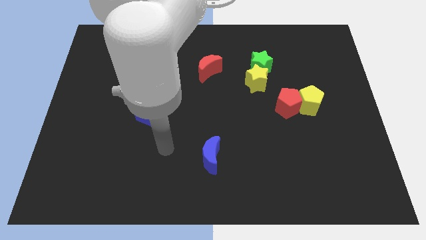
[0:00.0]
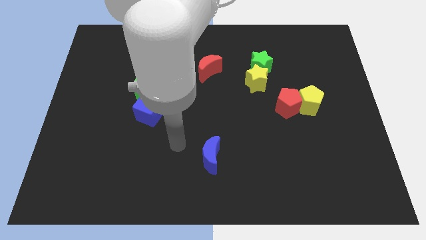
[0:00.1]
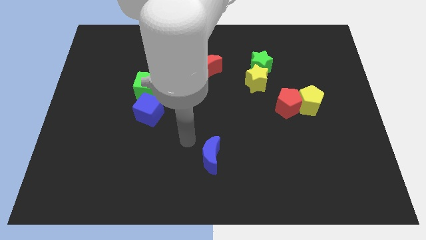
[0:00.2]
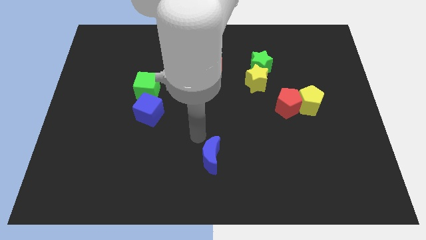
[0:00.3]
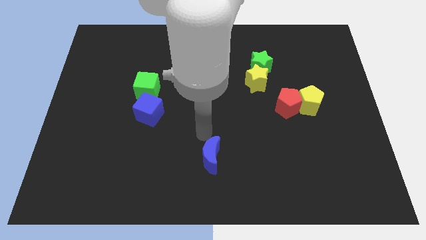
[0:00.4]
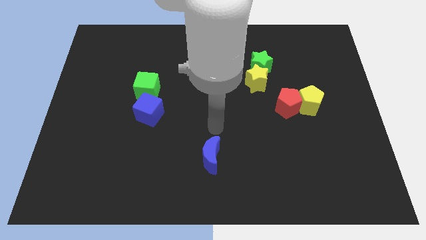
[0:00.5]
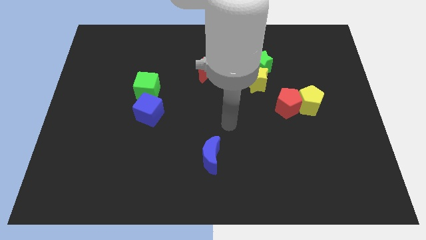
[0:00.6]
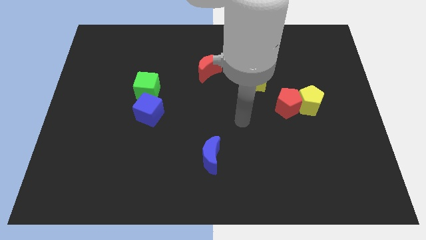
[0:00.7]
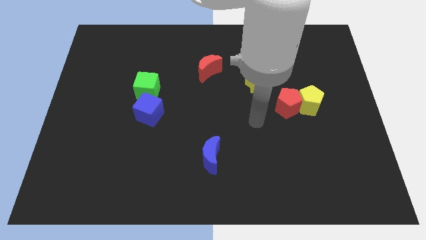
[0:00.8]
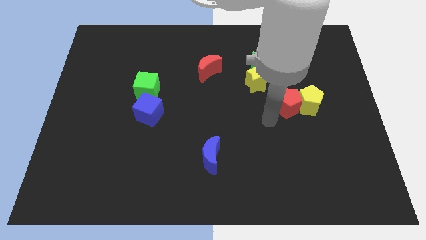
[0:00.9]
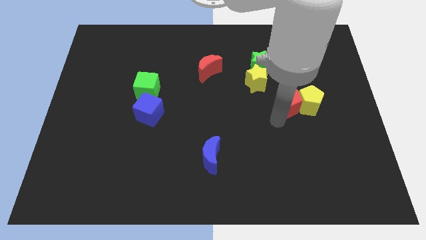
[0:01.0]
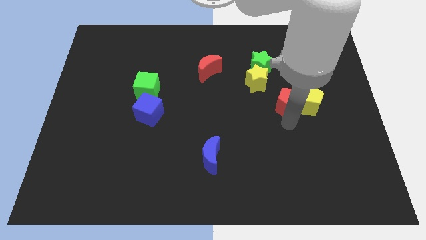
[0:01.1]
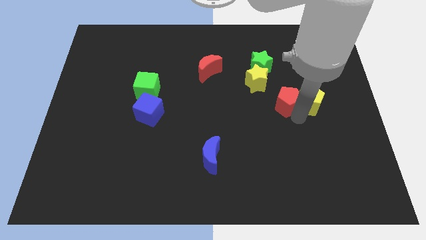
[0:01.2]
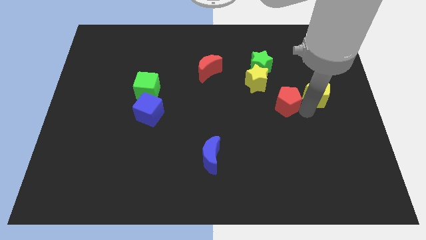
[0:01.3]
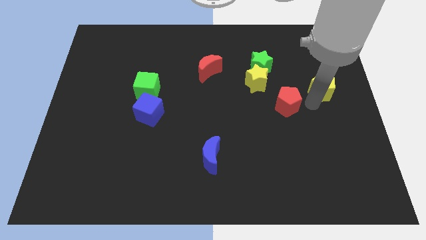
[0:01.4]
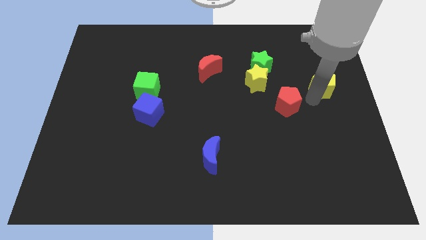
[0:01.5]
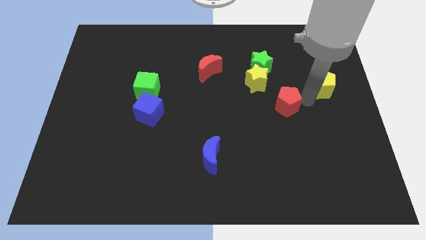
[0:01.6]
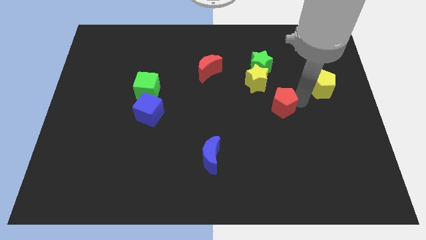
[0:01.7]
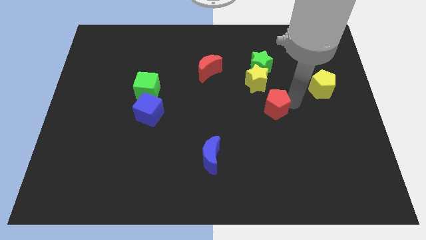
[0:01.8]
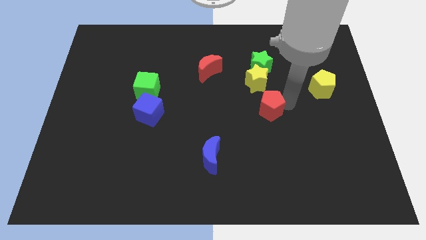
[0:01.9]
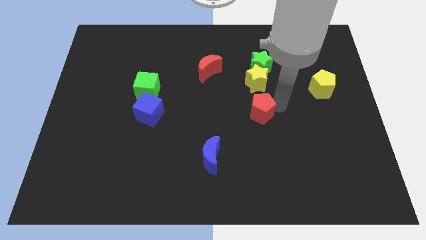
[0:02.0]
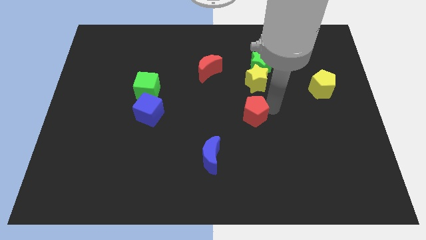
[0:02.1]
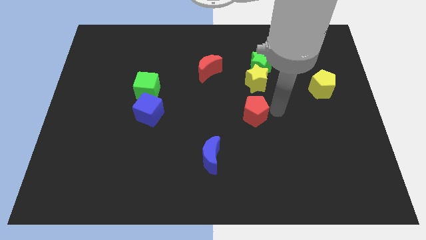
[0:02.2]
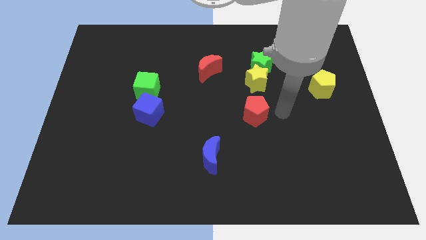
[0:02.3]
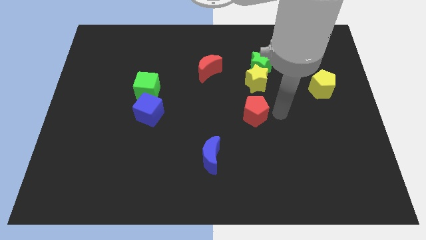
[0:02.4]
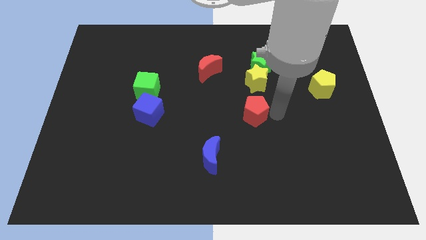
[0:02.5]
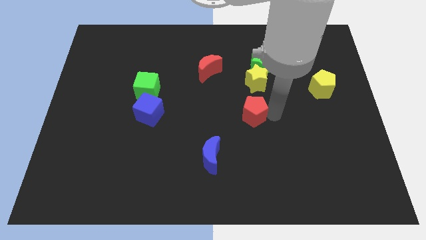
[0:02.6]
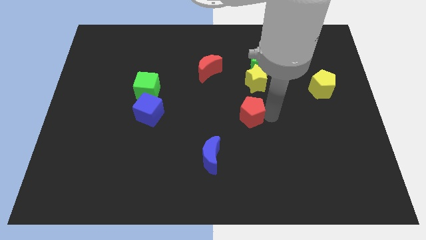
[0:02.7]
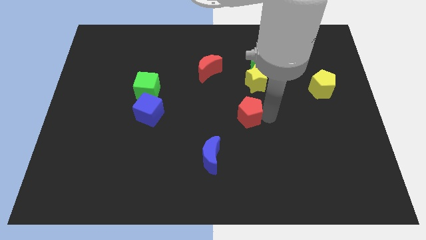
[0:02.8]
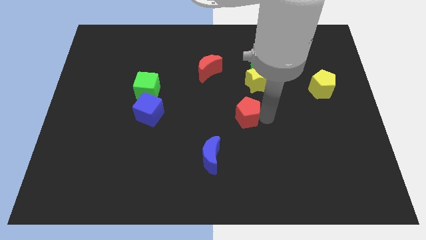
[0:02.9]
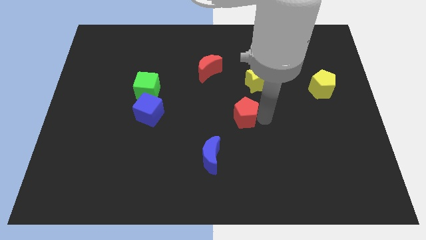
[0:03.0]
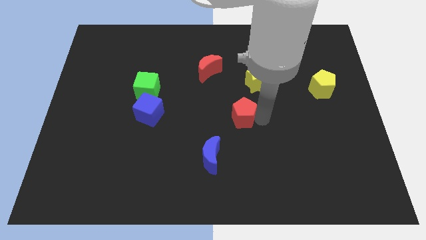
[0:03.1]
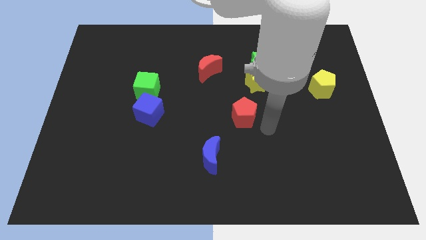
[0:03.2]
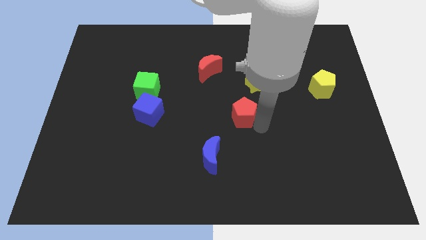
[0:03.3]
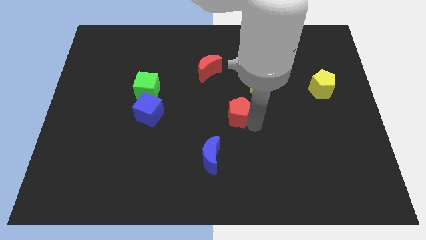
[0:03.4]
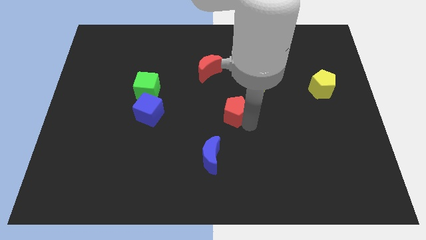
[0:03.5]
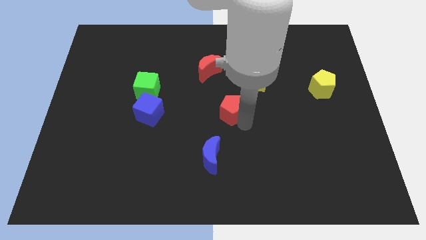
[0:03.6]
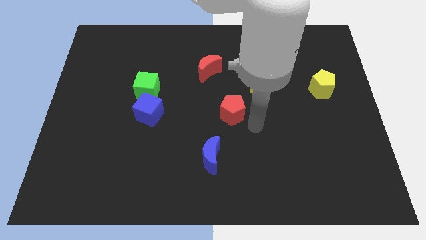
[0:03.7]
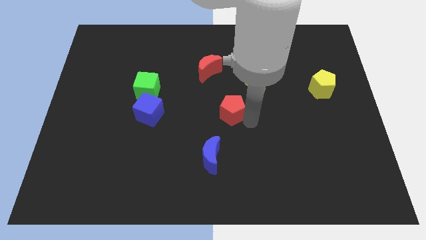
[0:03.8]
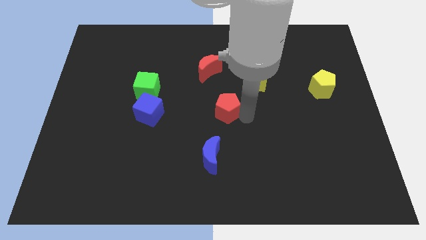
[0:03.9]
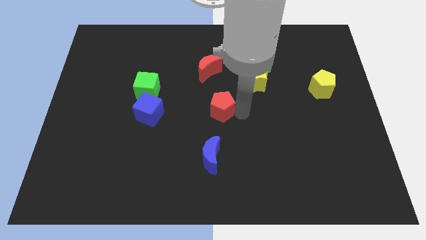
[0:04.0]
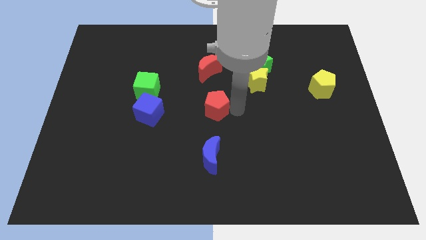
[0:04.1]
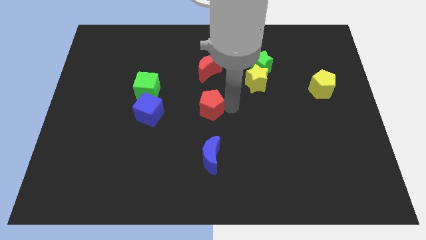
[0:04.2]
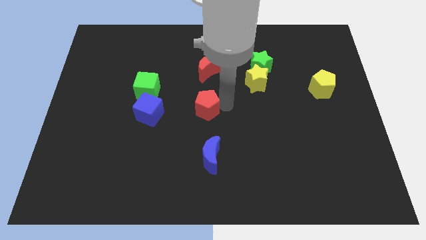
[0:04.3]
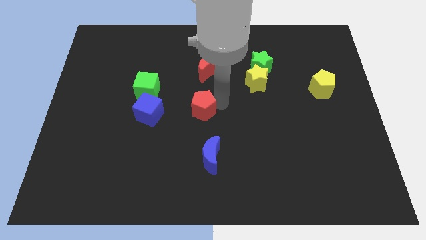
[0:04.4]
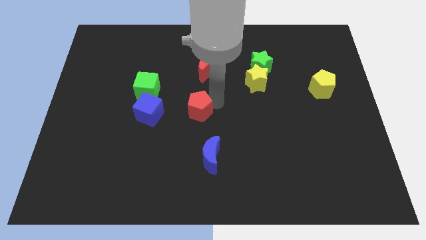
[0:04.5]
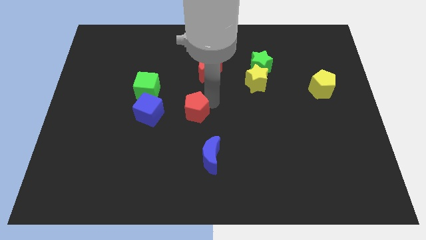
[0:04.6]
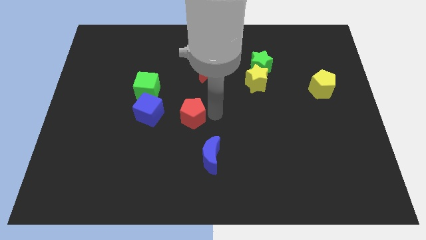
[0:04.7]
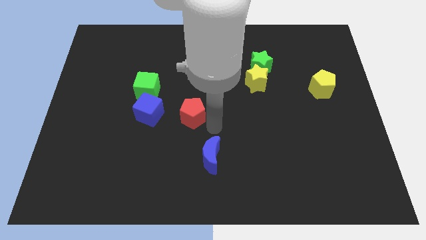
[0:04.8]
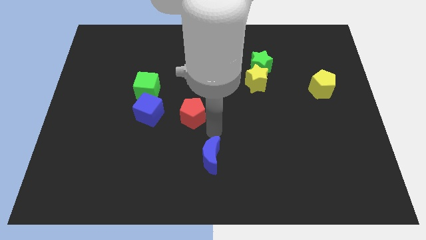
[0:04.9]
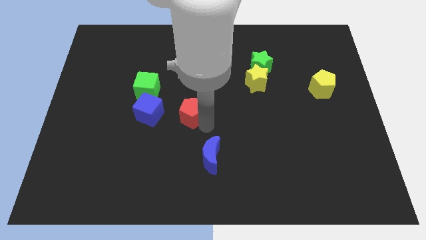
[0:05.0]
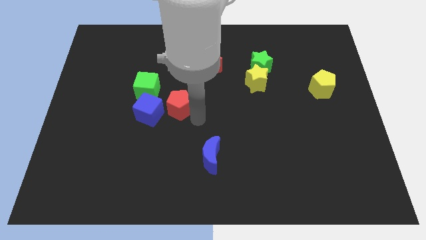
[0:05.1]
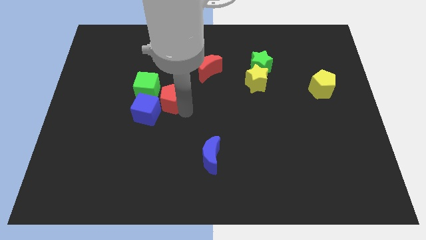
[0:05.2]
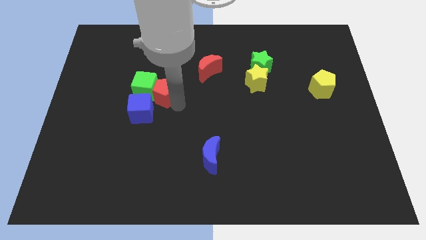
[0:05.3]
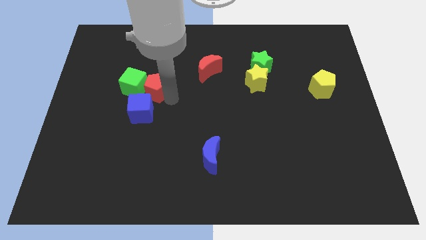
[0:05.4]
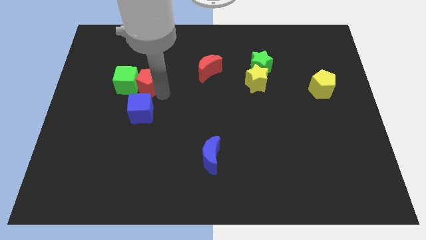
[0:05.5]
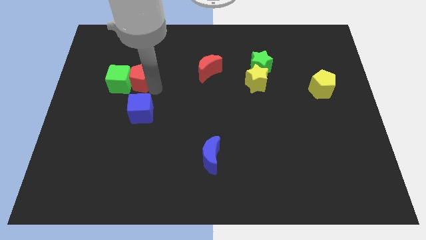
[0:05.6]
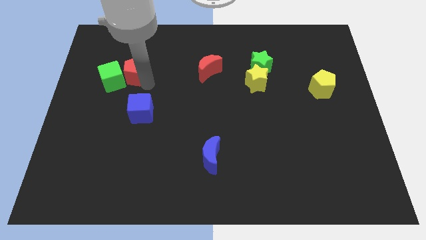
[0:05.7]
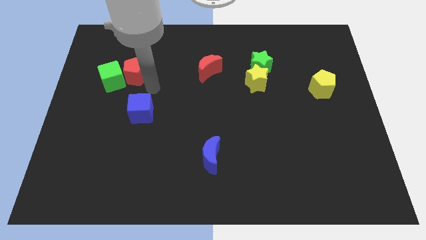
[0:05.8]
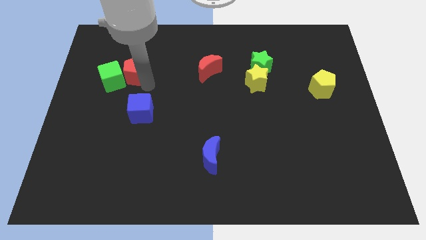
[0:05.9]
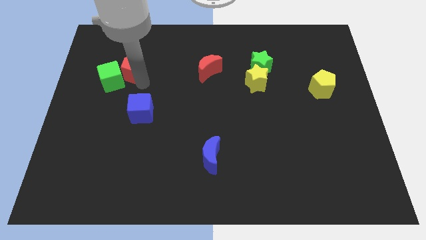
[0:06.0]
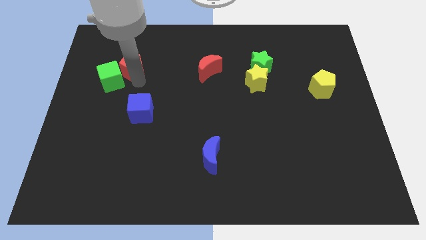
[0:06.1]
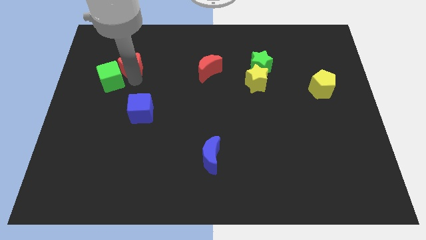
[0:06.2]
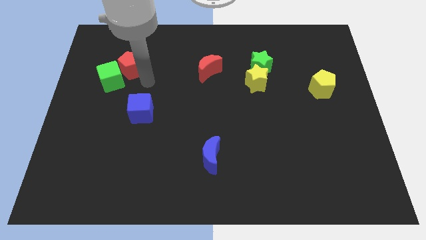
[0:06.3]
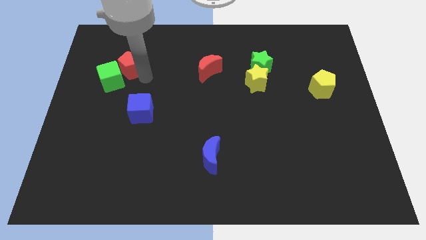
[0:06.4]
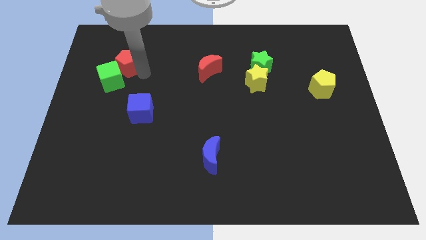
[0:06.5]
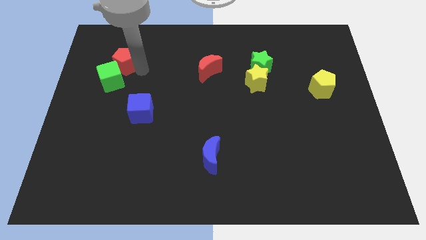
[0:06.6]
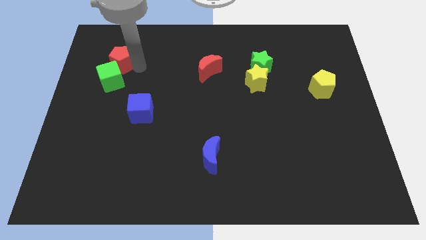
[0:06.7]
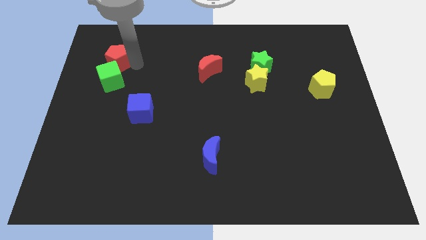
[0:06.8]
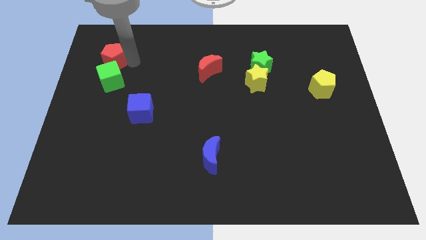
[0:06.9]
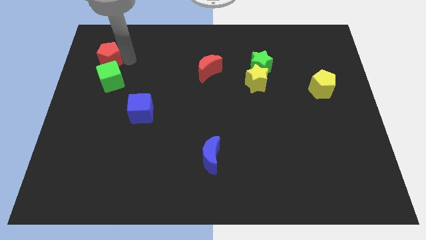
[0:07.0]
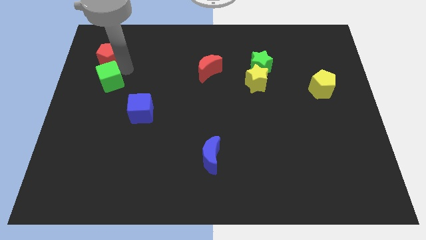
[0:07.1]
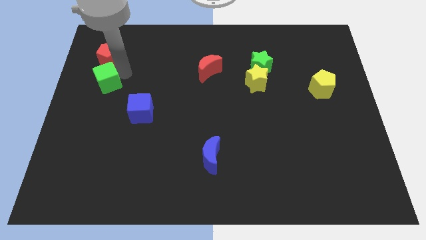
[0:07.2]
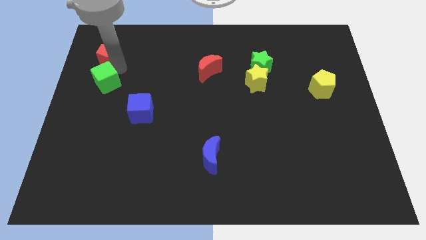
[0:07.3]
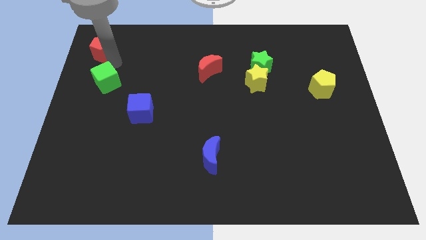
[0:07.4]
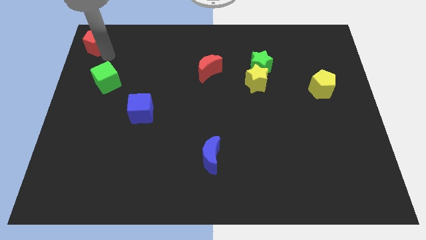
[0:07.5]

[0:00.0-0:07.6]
move the red pentagon to the top left of the board
